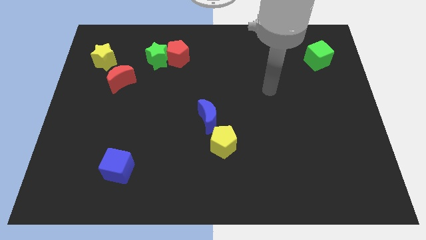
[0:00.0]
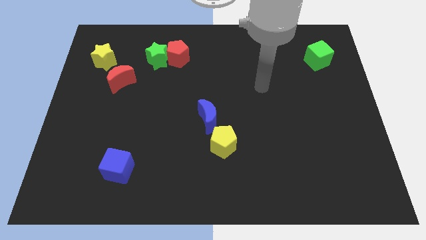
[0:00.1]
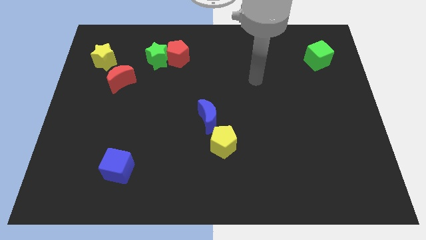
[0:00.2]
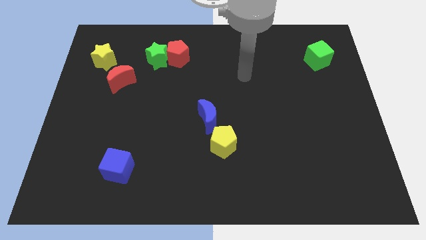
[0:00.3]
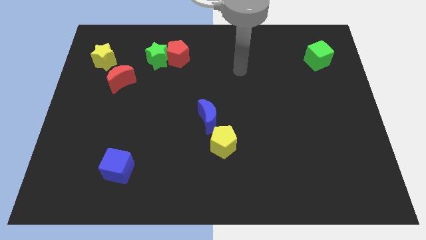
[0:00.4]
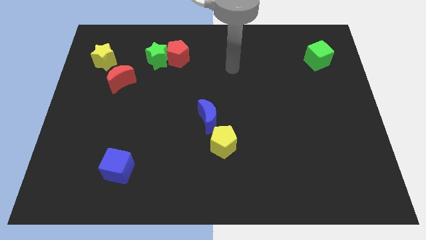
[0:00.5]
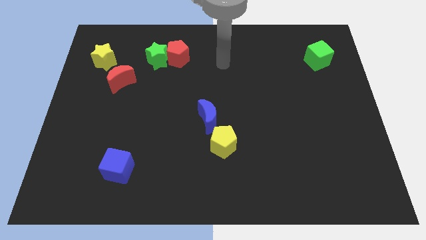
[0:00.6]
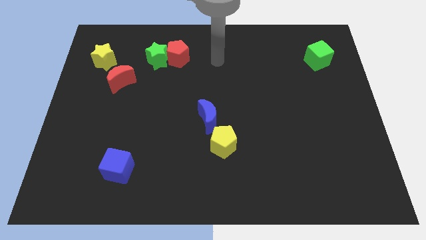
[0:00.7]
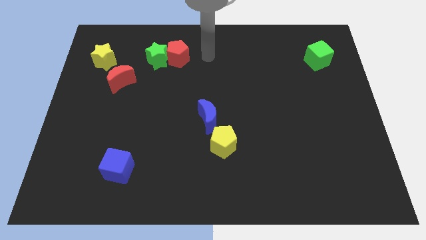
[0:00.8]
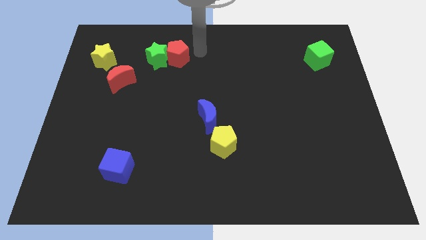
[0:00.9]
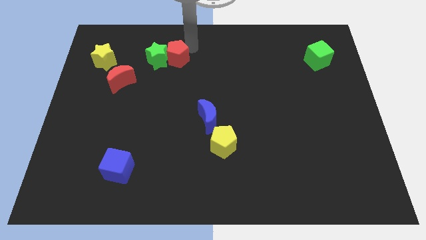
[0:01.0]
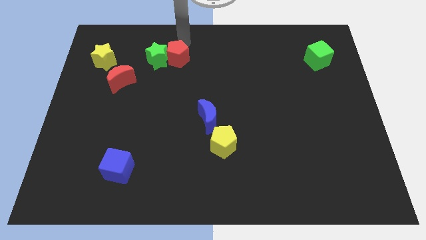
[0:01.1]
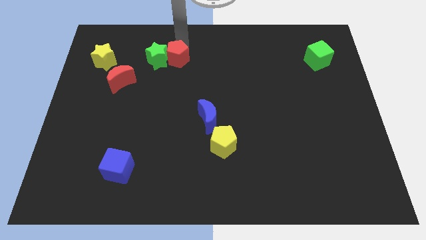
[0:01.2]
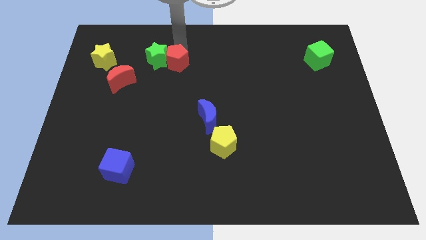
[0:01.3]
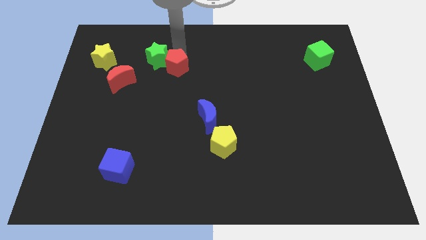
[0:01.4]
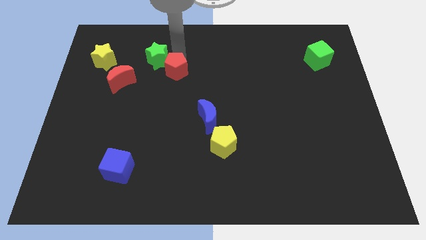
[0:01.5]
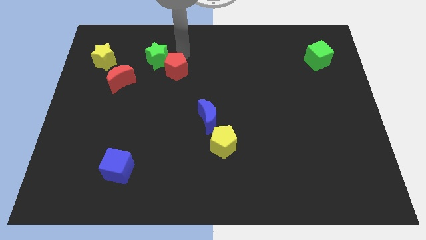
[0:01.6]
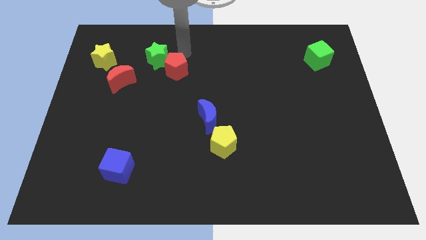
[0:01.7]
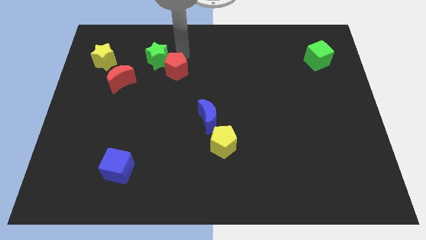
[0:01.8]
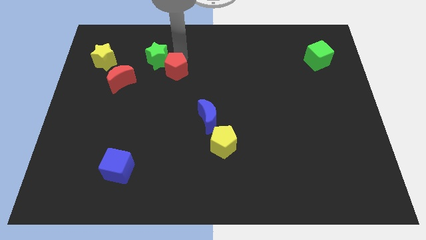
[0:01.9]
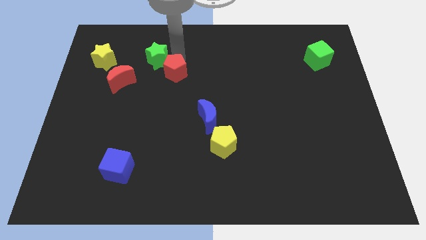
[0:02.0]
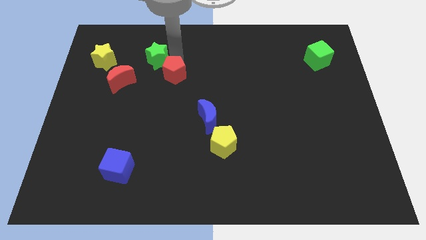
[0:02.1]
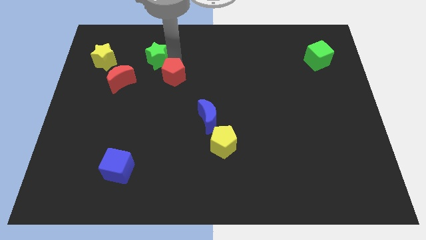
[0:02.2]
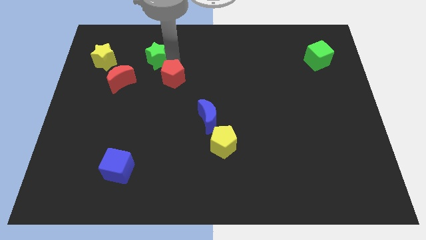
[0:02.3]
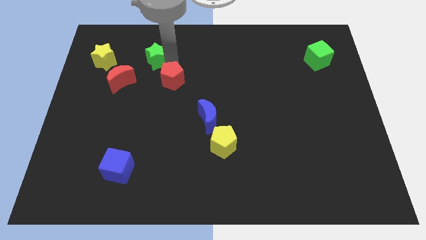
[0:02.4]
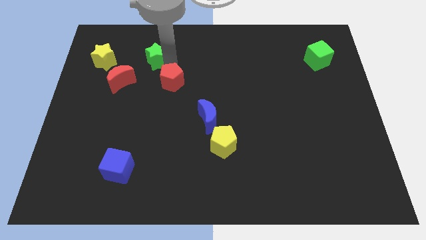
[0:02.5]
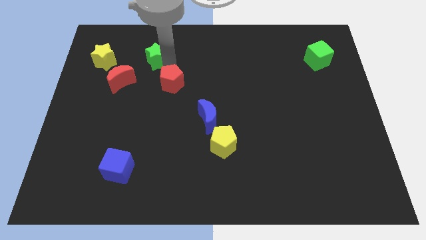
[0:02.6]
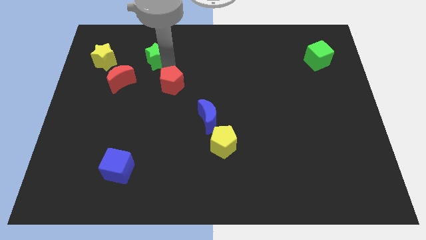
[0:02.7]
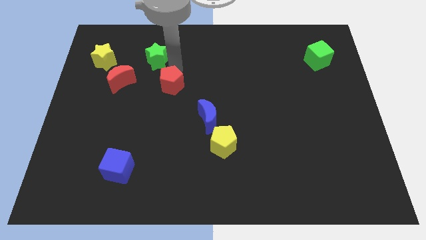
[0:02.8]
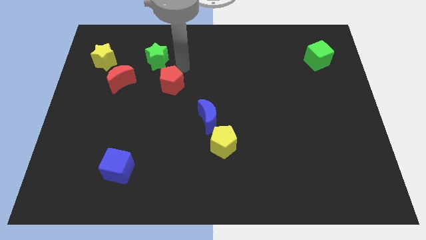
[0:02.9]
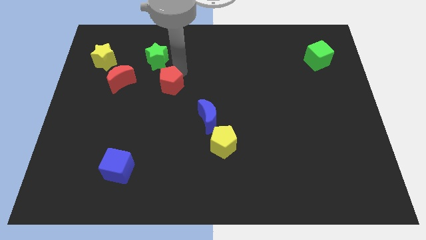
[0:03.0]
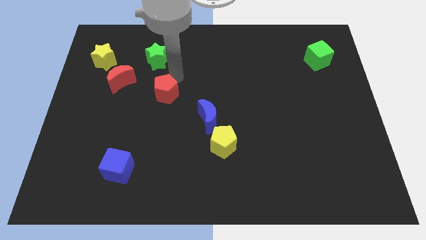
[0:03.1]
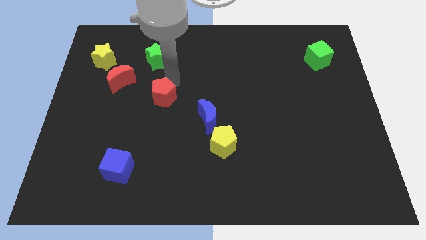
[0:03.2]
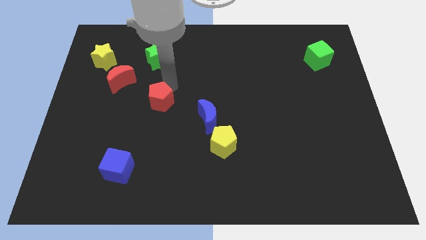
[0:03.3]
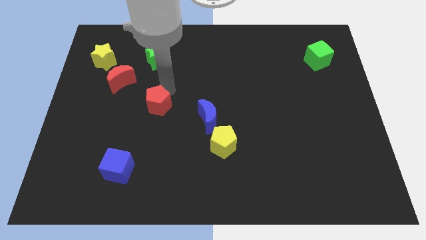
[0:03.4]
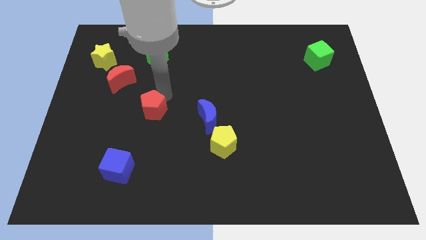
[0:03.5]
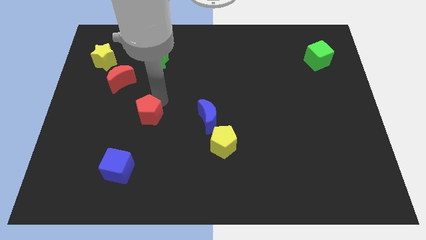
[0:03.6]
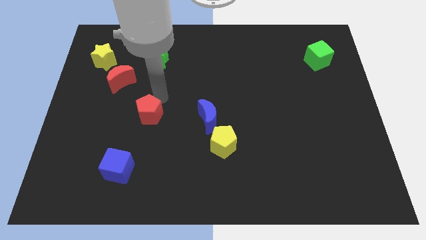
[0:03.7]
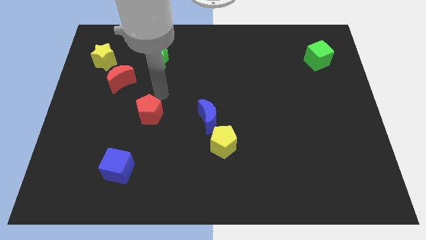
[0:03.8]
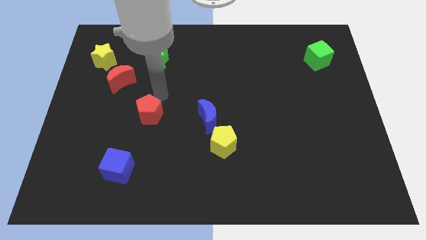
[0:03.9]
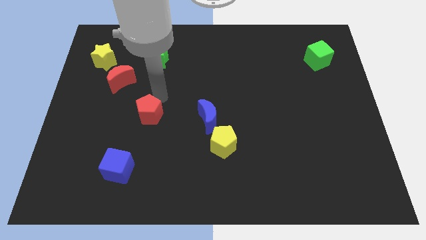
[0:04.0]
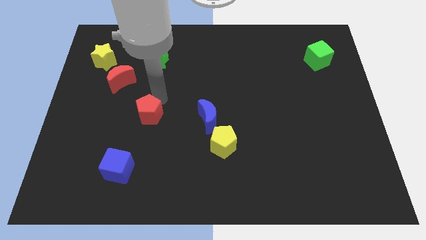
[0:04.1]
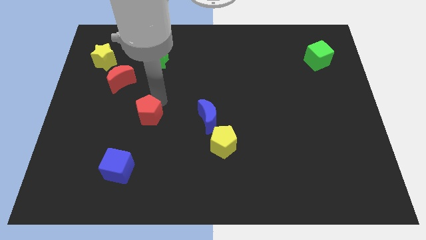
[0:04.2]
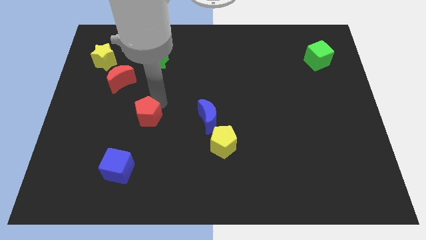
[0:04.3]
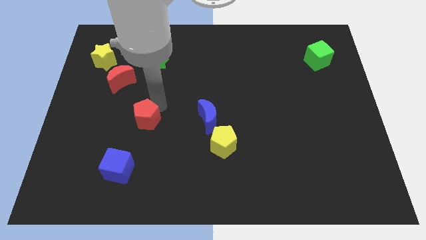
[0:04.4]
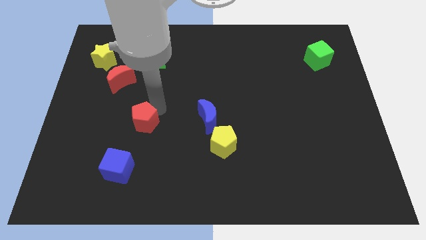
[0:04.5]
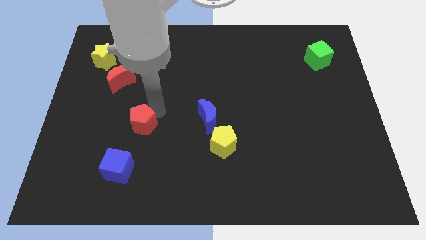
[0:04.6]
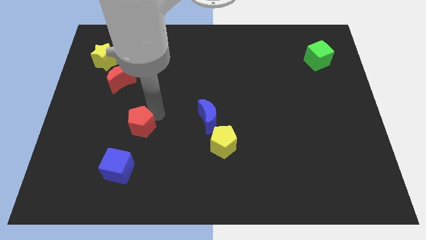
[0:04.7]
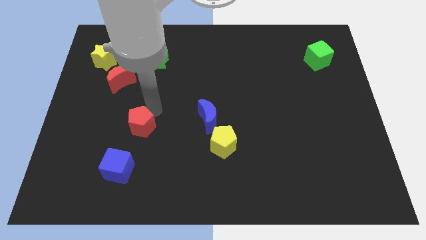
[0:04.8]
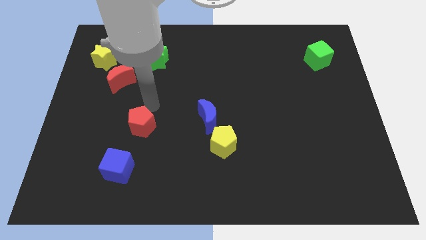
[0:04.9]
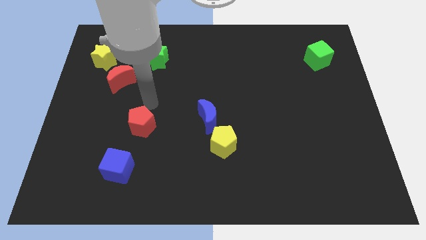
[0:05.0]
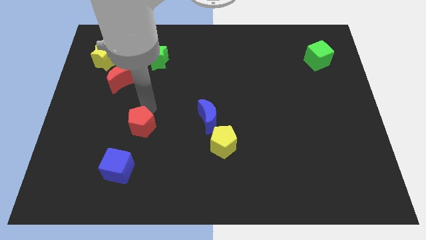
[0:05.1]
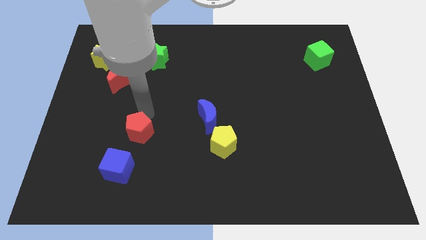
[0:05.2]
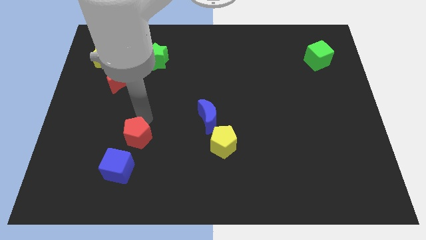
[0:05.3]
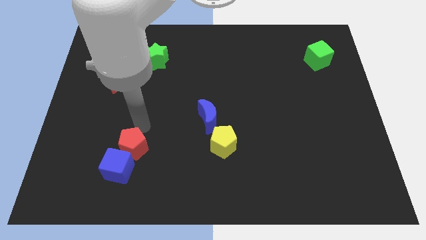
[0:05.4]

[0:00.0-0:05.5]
slide the red pentagon towards the blue cube

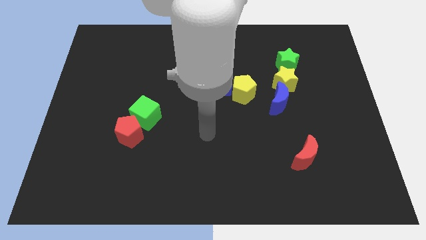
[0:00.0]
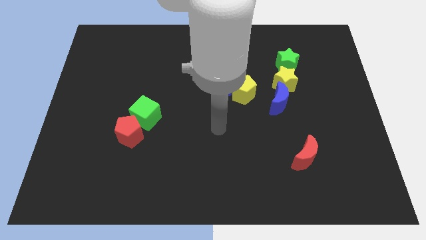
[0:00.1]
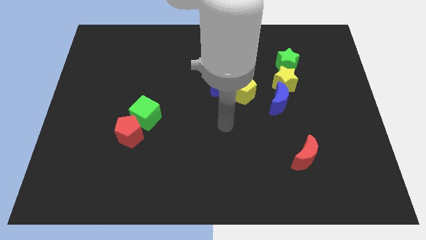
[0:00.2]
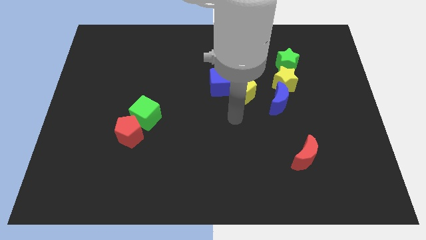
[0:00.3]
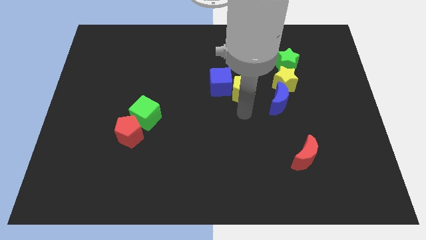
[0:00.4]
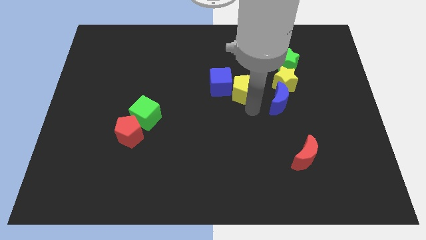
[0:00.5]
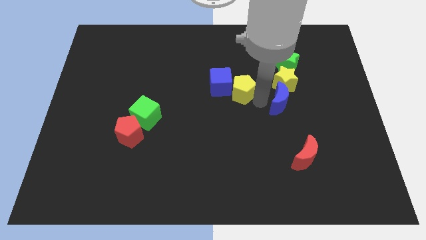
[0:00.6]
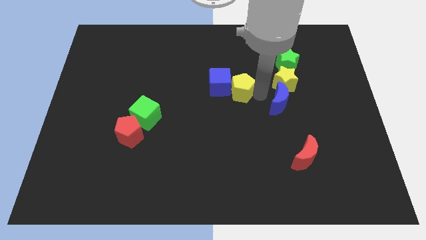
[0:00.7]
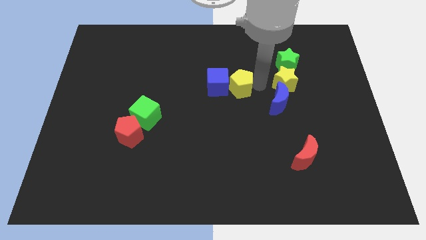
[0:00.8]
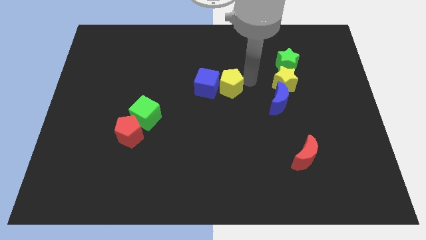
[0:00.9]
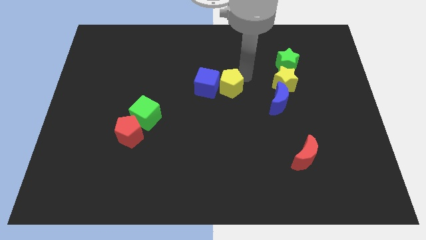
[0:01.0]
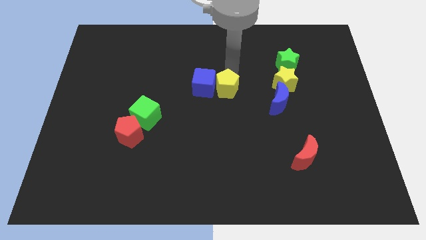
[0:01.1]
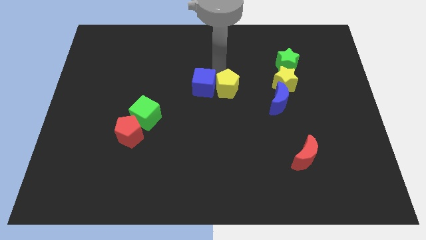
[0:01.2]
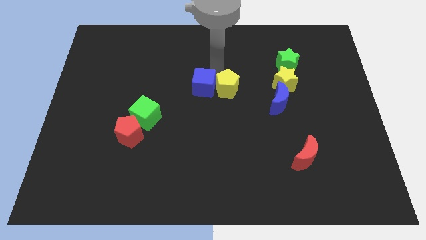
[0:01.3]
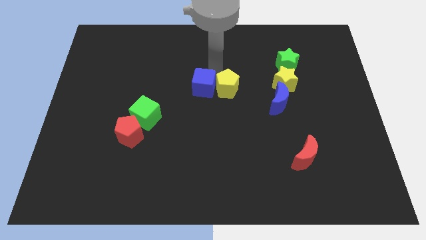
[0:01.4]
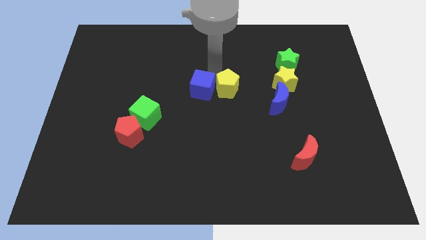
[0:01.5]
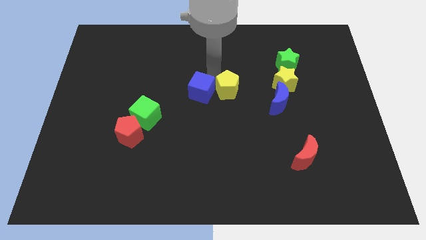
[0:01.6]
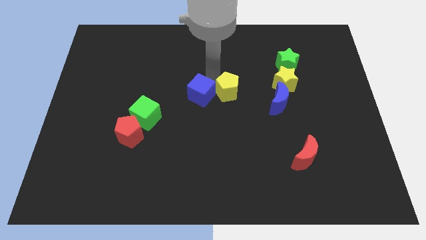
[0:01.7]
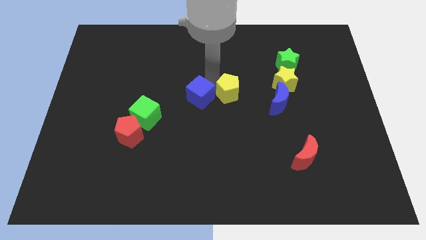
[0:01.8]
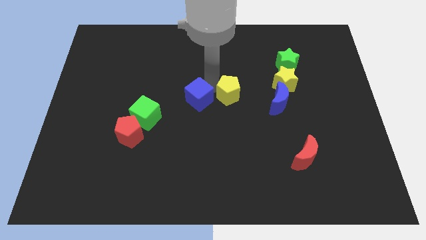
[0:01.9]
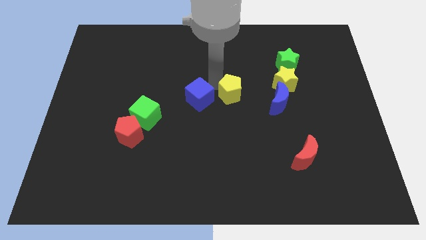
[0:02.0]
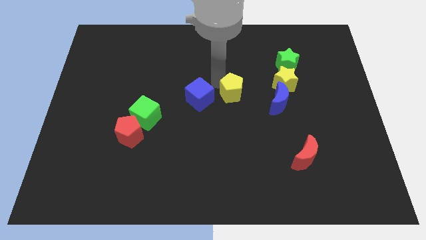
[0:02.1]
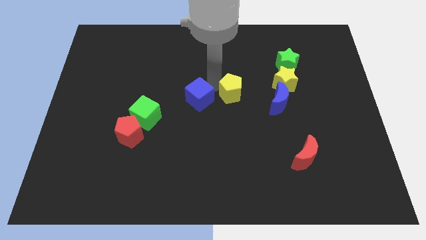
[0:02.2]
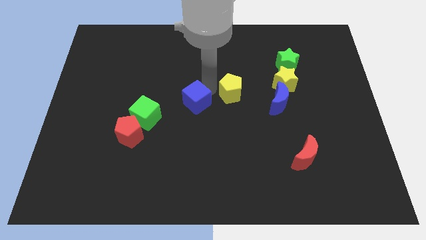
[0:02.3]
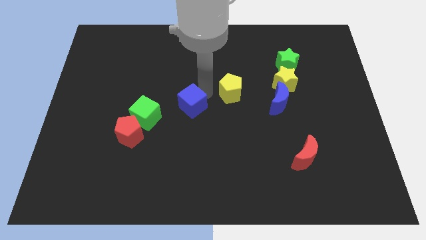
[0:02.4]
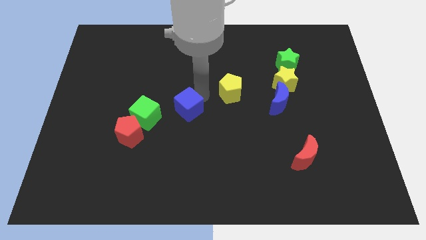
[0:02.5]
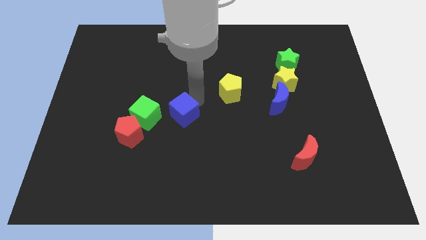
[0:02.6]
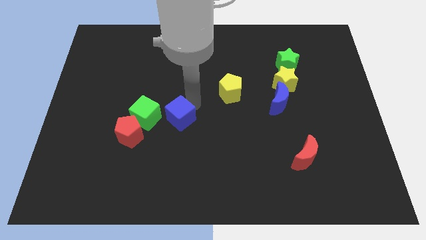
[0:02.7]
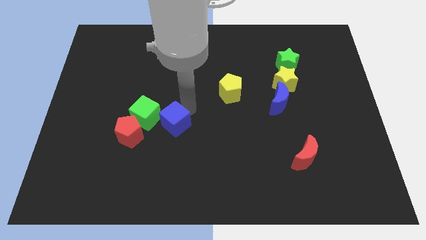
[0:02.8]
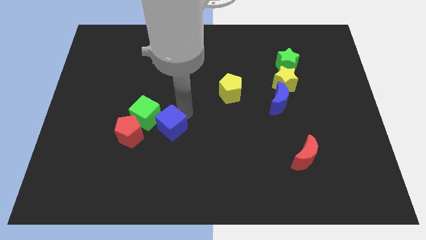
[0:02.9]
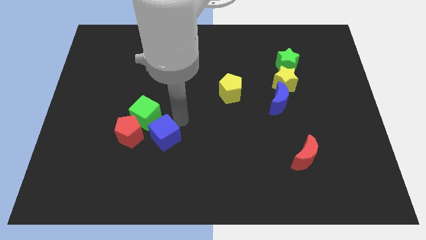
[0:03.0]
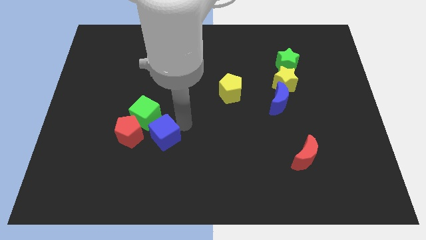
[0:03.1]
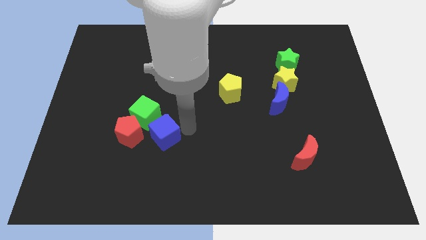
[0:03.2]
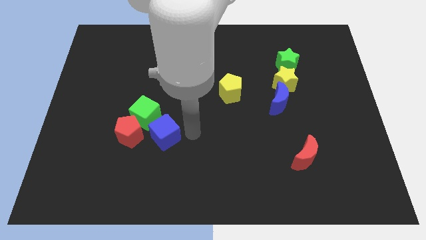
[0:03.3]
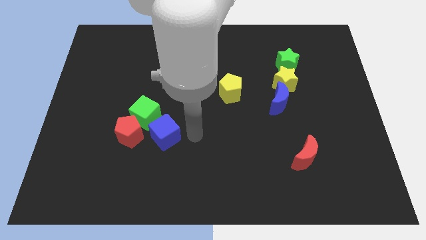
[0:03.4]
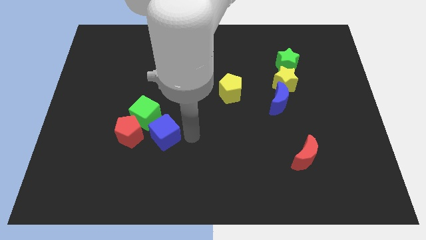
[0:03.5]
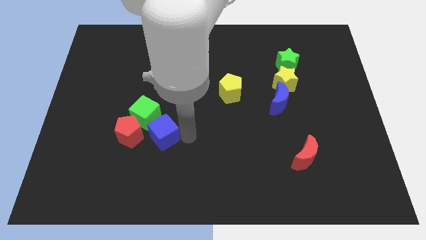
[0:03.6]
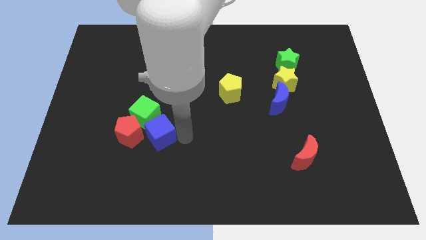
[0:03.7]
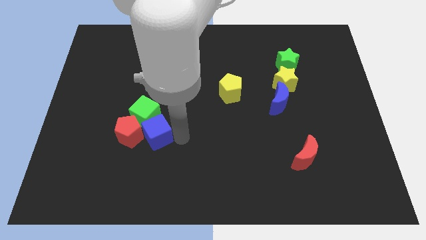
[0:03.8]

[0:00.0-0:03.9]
put the blue cube next to the red pentagon
